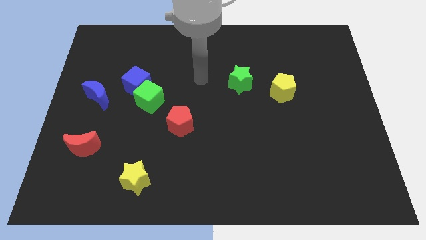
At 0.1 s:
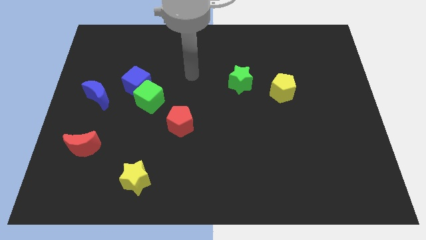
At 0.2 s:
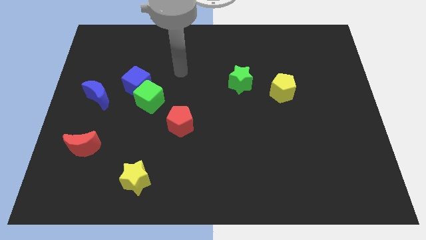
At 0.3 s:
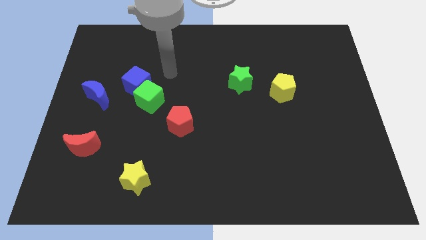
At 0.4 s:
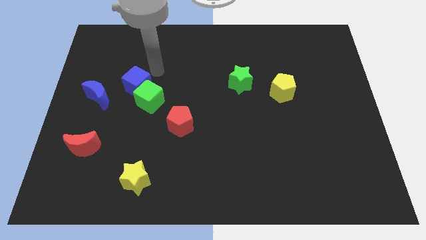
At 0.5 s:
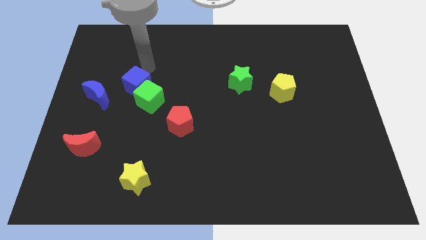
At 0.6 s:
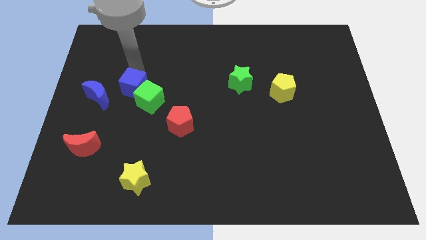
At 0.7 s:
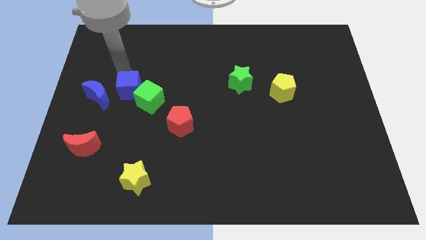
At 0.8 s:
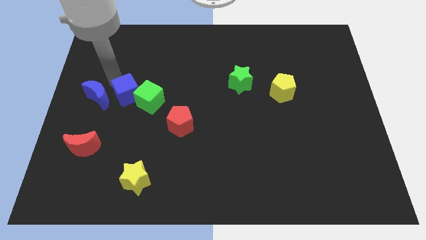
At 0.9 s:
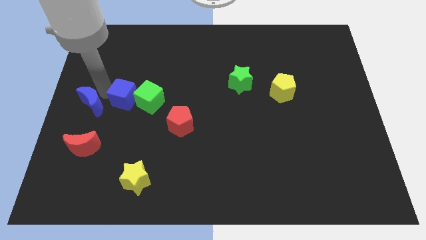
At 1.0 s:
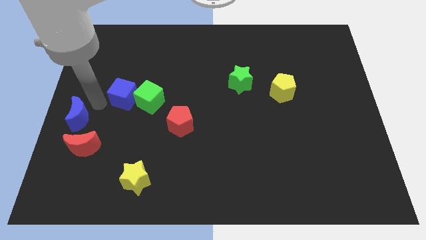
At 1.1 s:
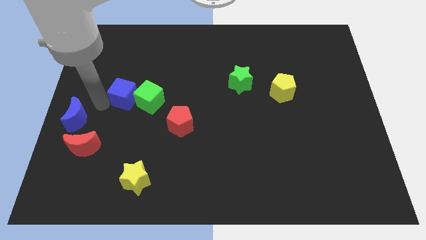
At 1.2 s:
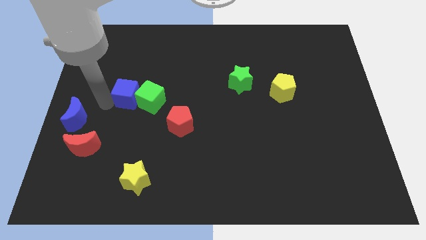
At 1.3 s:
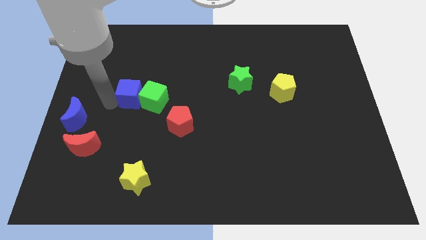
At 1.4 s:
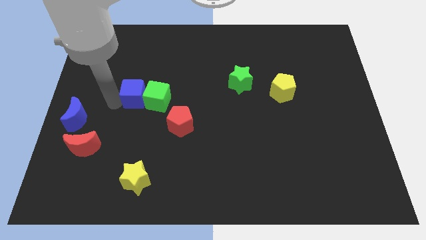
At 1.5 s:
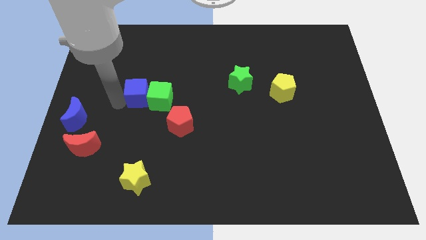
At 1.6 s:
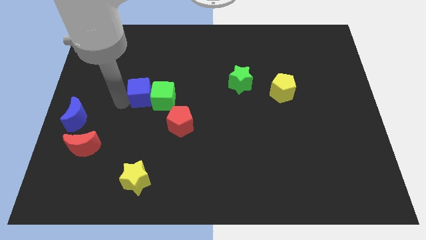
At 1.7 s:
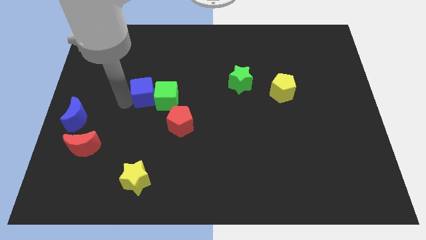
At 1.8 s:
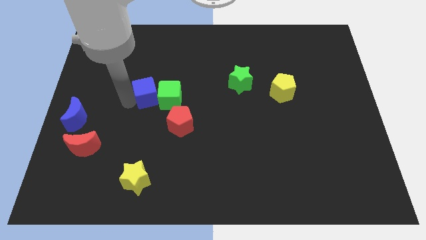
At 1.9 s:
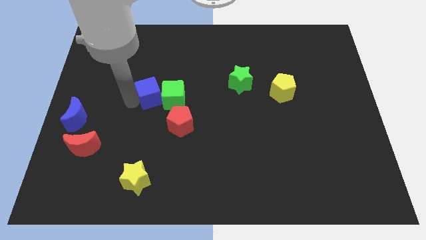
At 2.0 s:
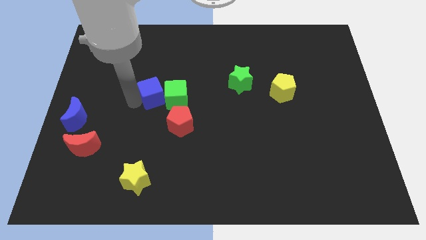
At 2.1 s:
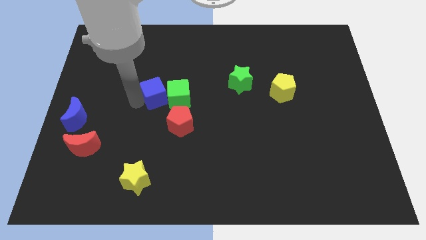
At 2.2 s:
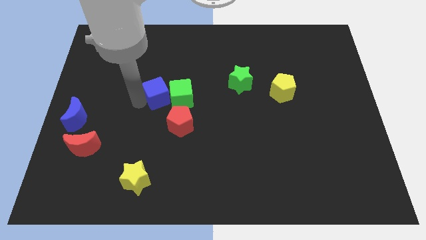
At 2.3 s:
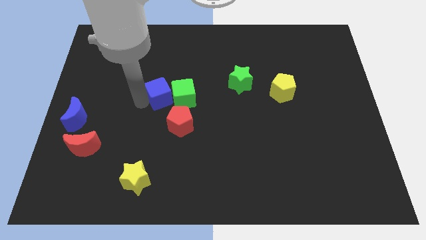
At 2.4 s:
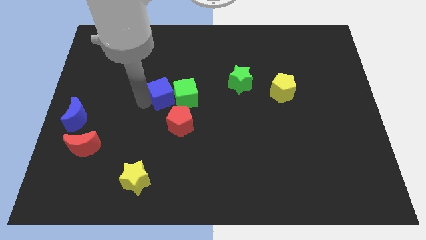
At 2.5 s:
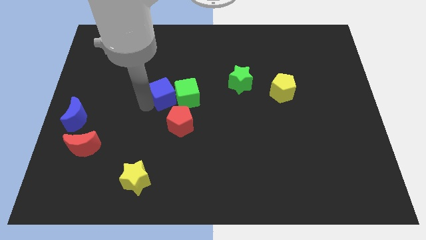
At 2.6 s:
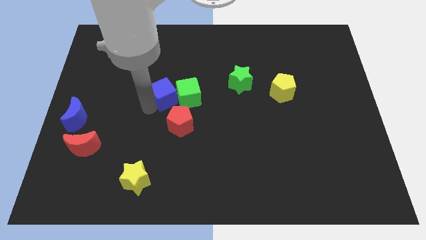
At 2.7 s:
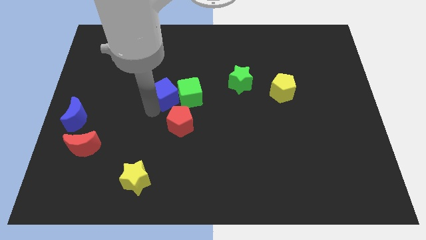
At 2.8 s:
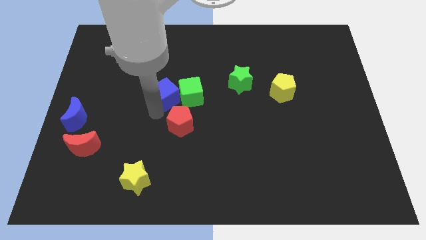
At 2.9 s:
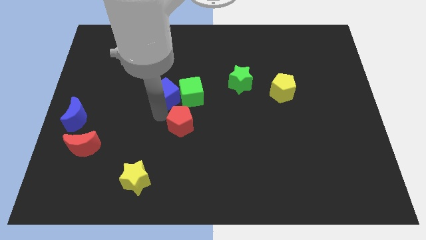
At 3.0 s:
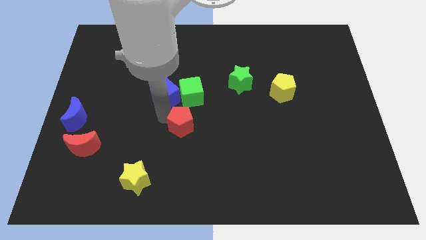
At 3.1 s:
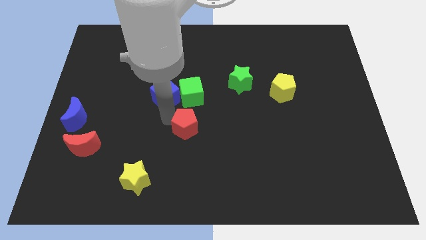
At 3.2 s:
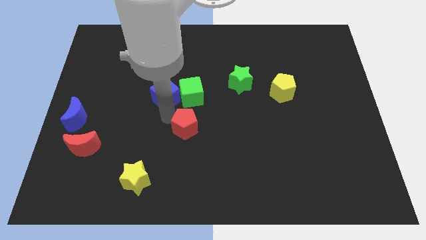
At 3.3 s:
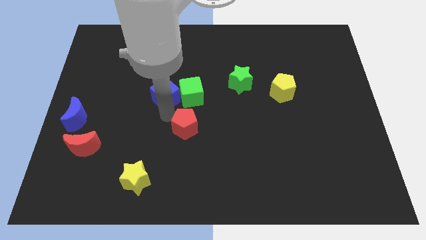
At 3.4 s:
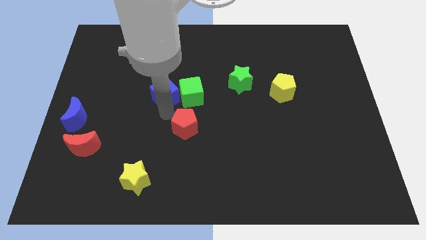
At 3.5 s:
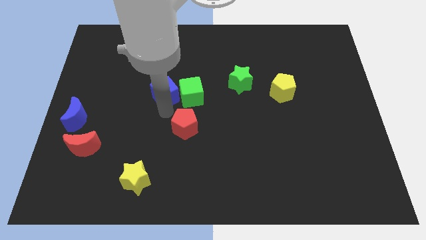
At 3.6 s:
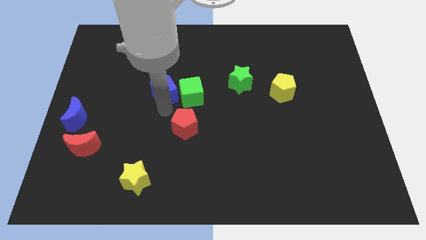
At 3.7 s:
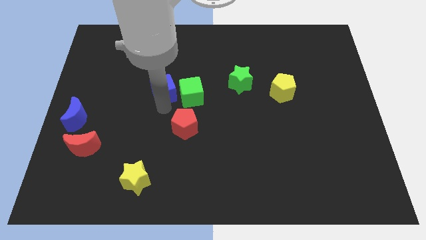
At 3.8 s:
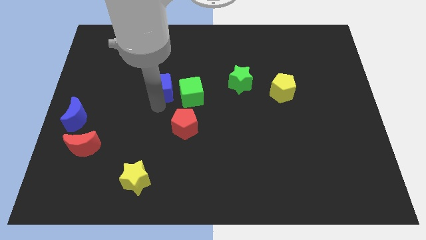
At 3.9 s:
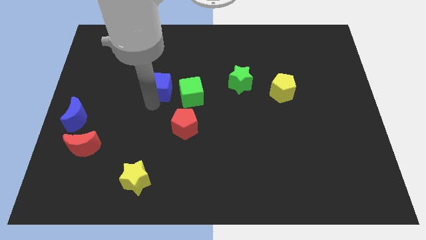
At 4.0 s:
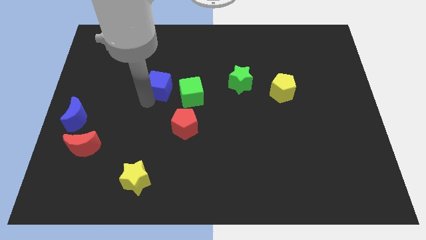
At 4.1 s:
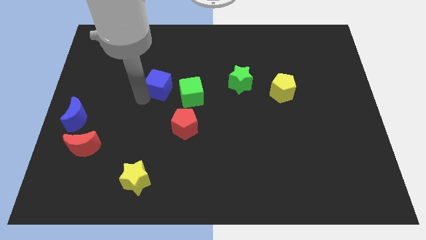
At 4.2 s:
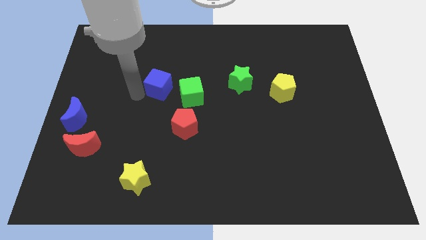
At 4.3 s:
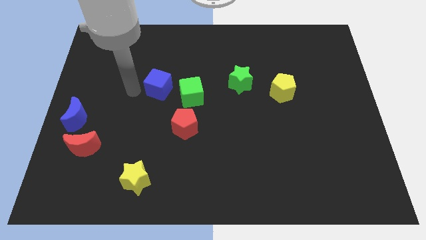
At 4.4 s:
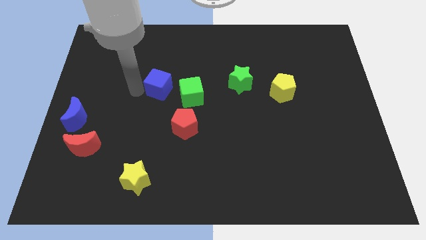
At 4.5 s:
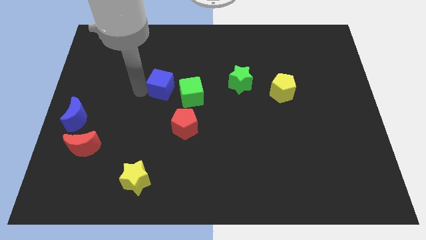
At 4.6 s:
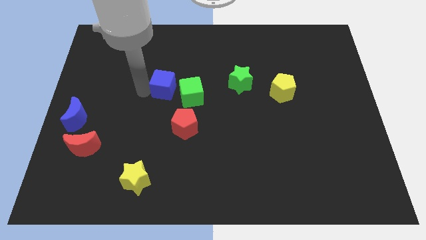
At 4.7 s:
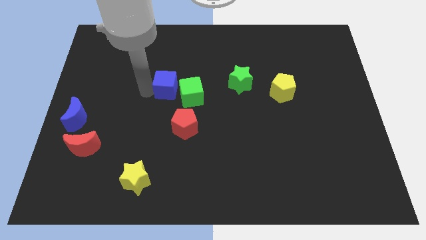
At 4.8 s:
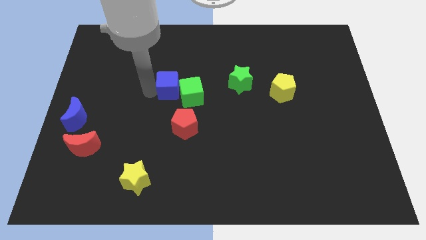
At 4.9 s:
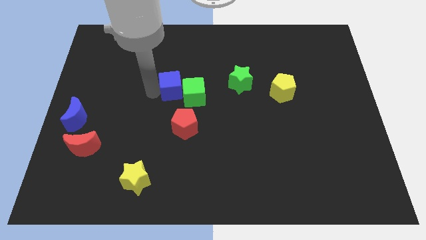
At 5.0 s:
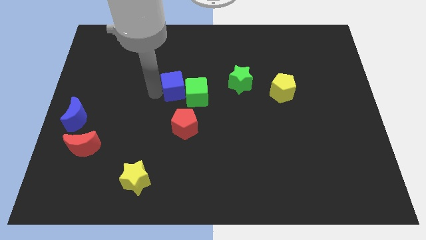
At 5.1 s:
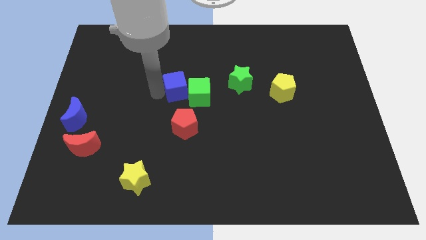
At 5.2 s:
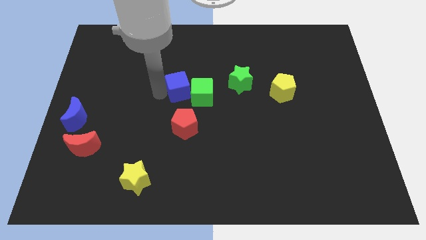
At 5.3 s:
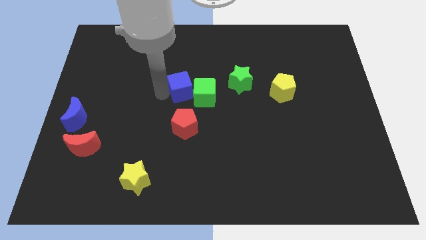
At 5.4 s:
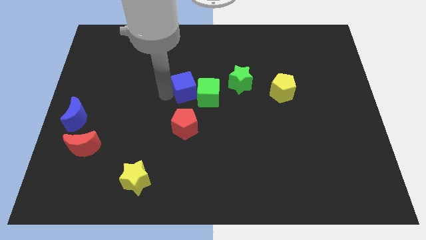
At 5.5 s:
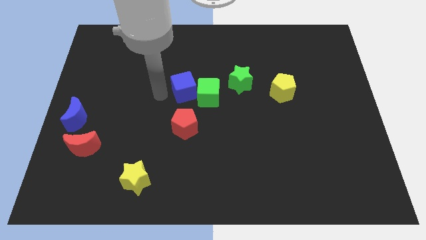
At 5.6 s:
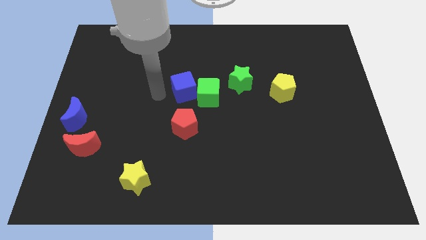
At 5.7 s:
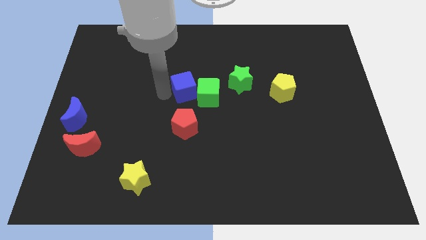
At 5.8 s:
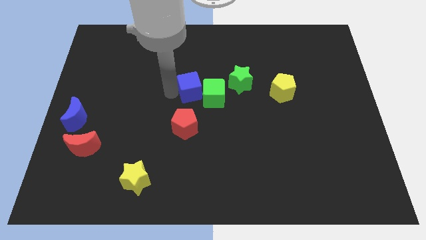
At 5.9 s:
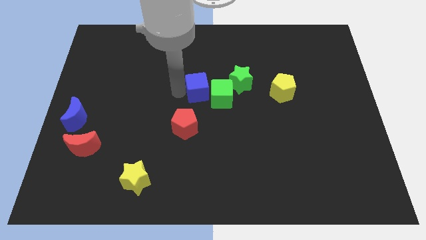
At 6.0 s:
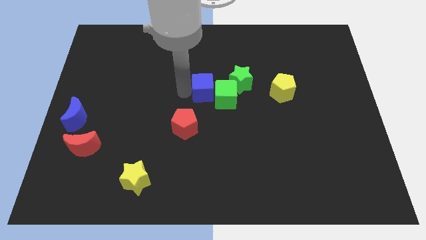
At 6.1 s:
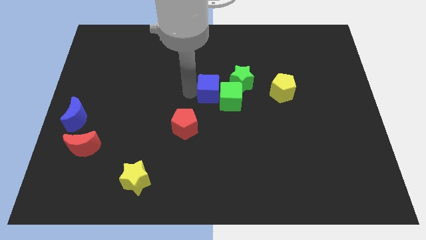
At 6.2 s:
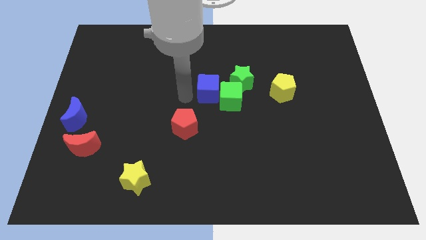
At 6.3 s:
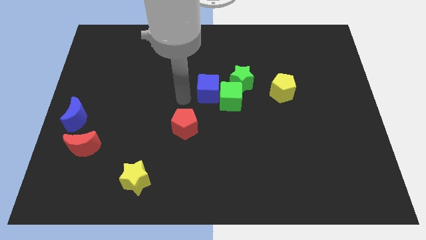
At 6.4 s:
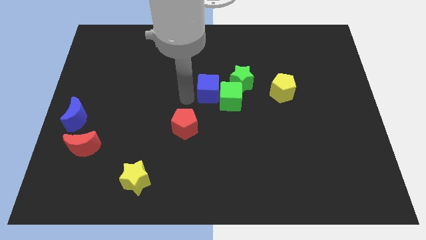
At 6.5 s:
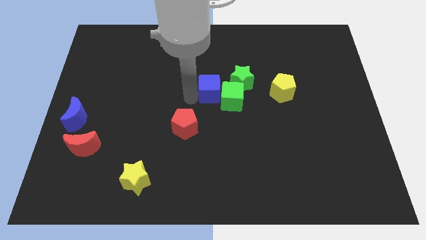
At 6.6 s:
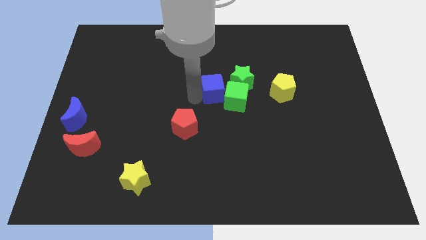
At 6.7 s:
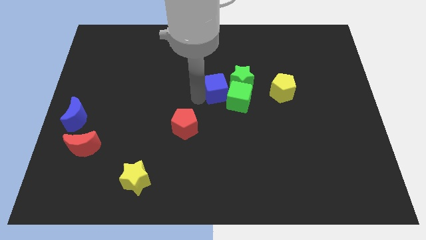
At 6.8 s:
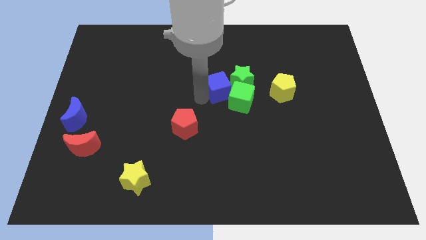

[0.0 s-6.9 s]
push the blue cube next to the green star

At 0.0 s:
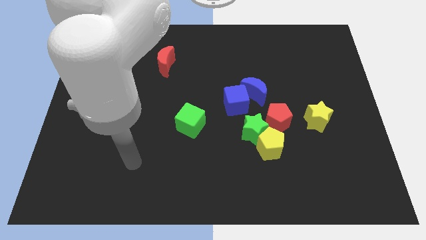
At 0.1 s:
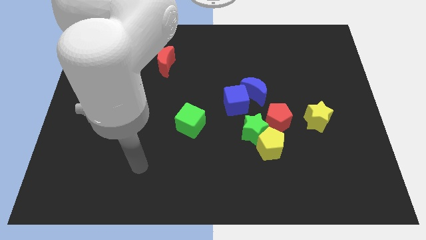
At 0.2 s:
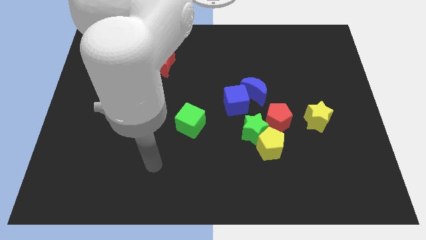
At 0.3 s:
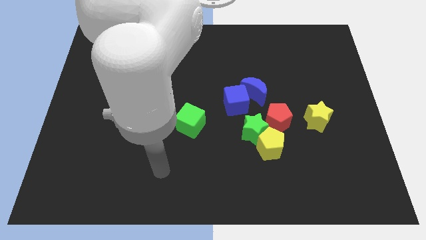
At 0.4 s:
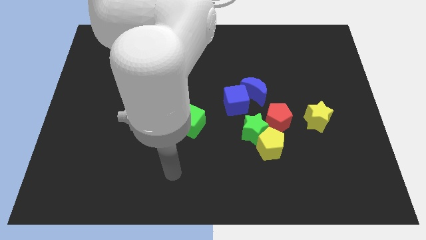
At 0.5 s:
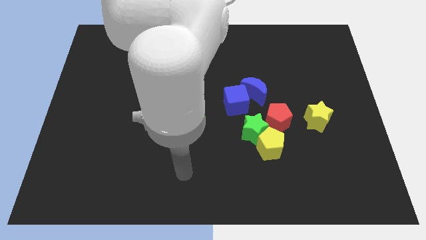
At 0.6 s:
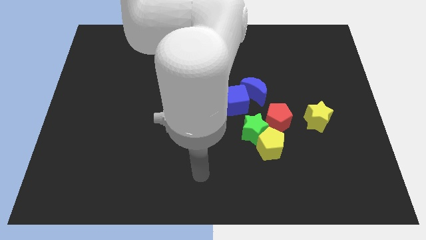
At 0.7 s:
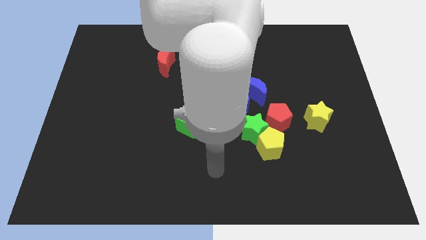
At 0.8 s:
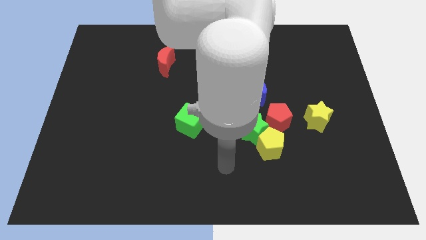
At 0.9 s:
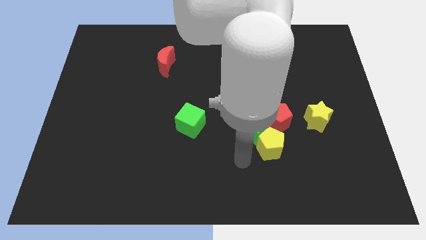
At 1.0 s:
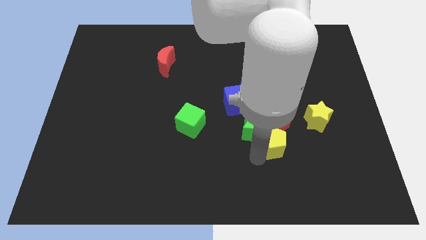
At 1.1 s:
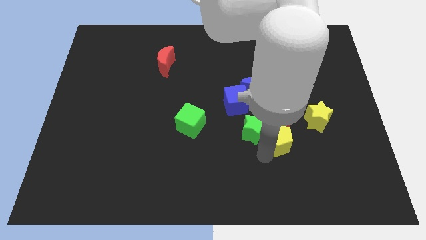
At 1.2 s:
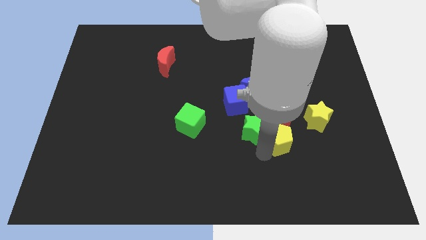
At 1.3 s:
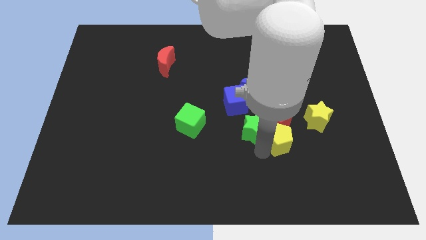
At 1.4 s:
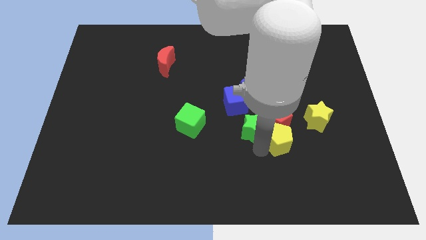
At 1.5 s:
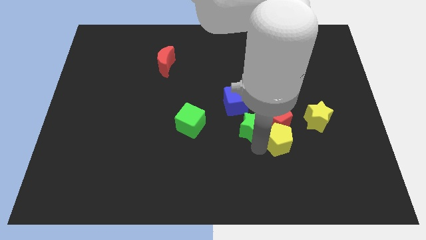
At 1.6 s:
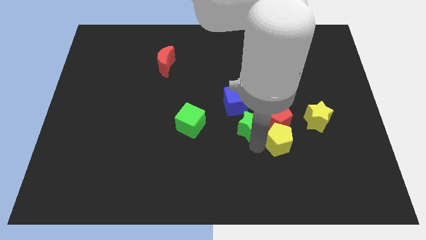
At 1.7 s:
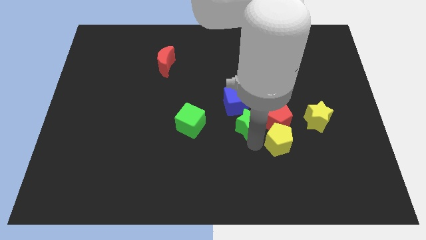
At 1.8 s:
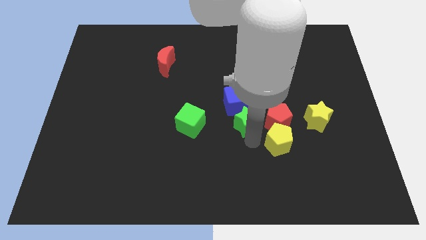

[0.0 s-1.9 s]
slide the green star close to the blue cube
